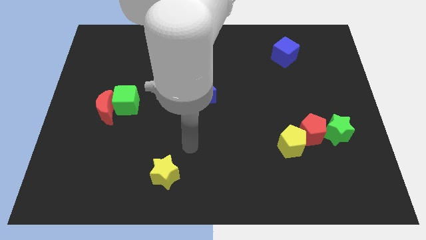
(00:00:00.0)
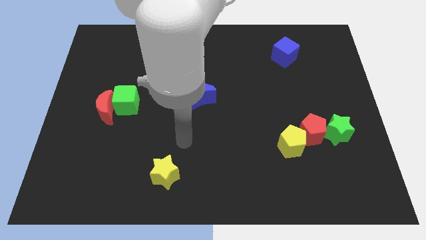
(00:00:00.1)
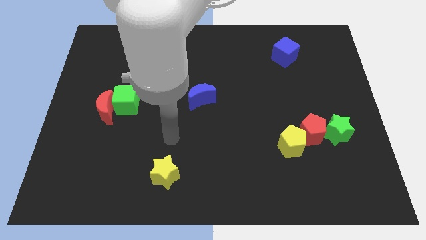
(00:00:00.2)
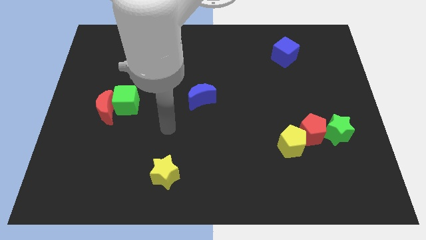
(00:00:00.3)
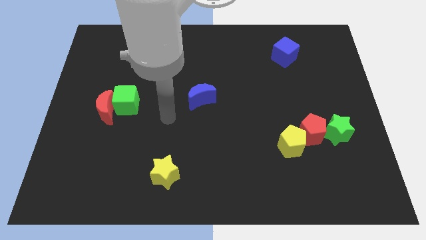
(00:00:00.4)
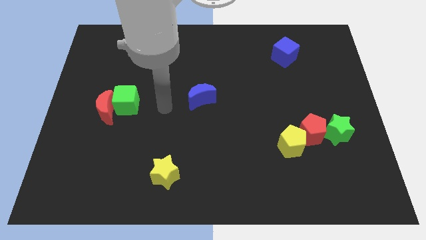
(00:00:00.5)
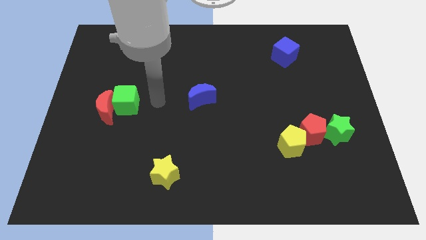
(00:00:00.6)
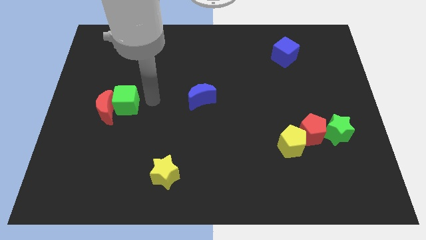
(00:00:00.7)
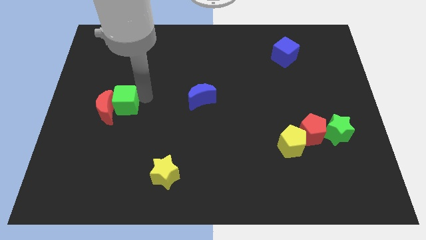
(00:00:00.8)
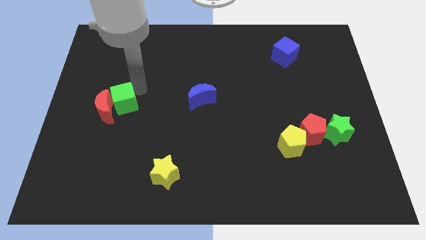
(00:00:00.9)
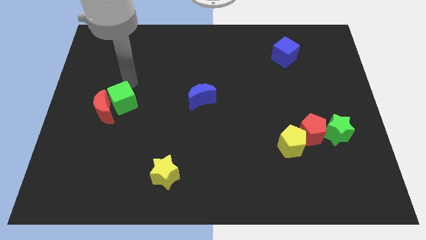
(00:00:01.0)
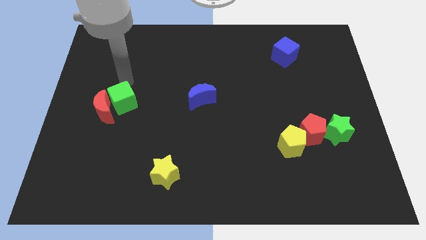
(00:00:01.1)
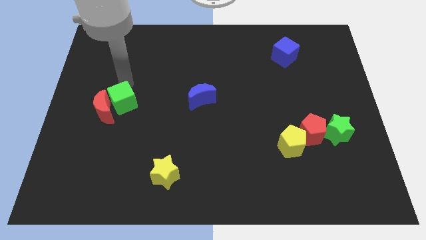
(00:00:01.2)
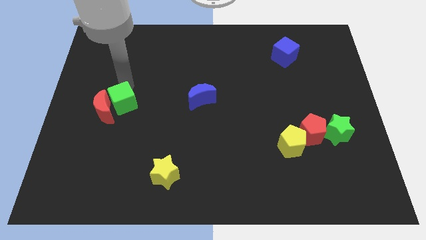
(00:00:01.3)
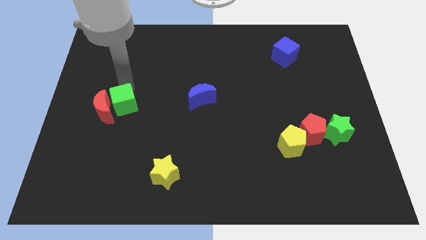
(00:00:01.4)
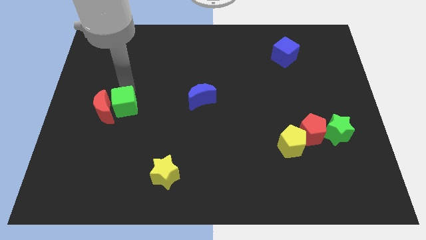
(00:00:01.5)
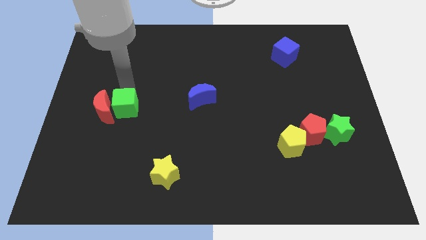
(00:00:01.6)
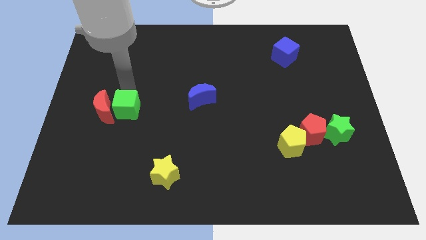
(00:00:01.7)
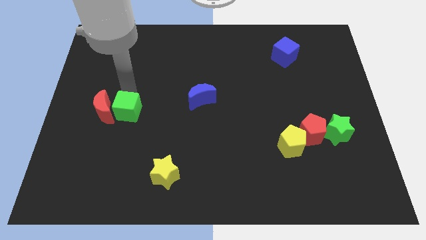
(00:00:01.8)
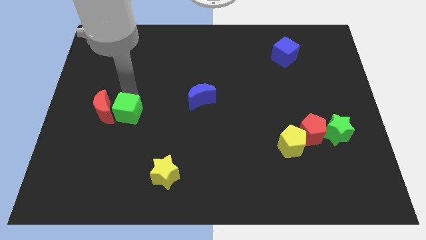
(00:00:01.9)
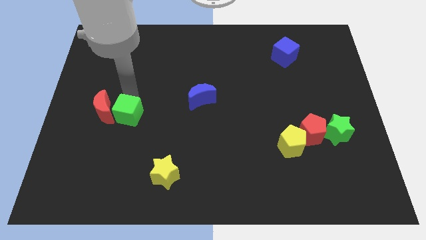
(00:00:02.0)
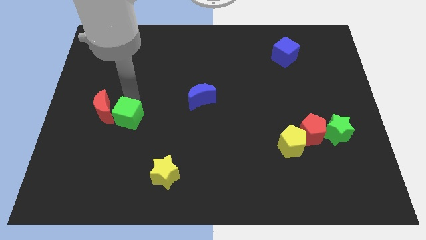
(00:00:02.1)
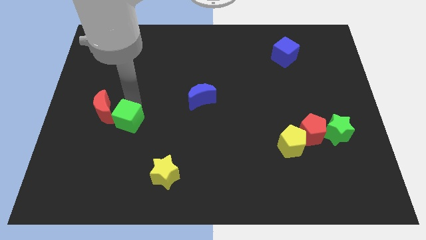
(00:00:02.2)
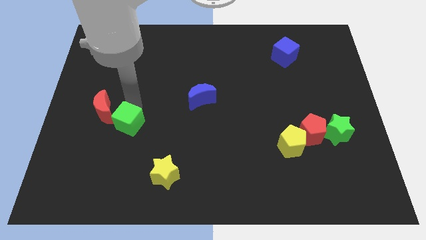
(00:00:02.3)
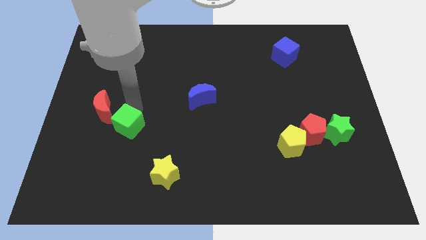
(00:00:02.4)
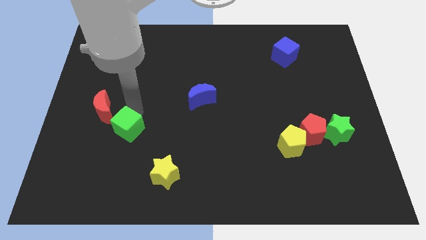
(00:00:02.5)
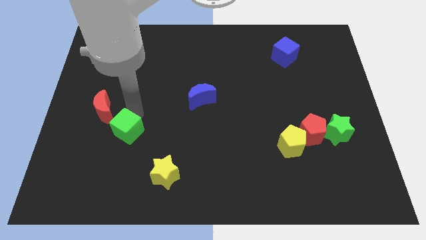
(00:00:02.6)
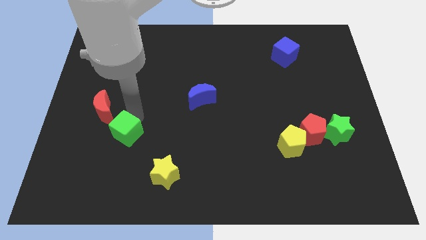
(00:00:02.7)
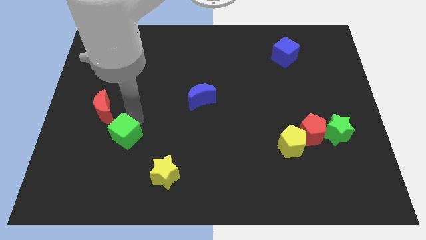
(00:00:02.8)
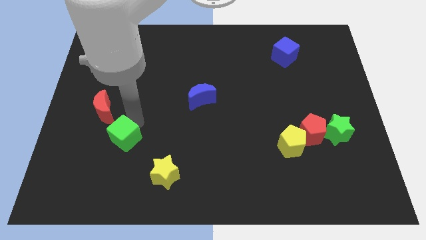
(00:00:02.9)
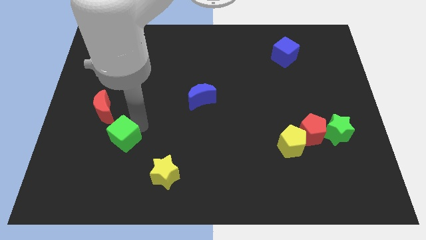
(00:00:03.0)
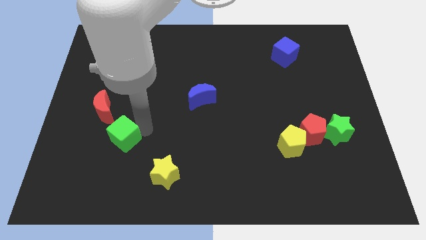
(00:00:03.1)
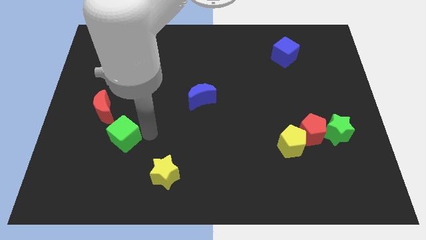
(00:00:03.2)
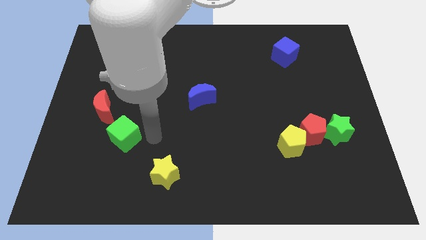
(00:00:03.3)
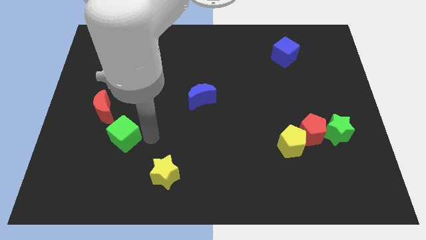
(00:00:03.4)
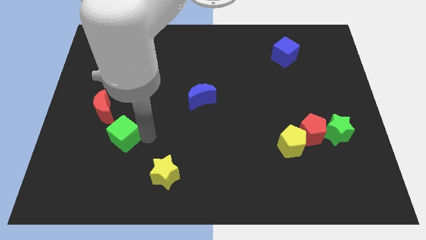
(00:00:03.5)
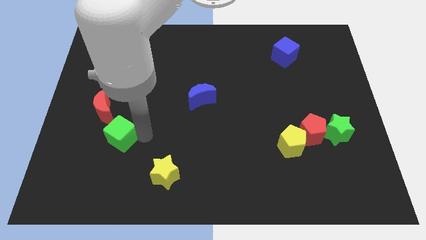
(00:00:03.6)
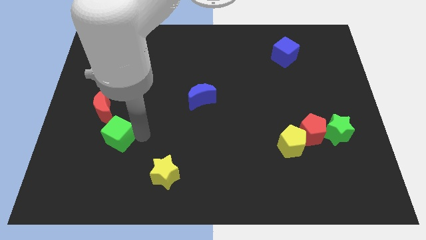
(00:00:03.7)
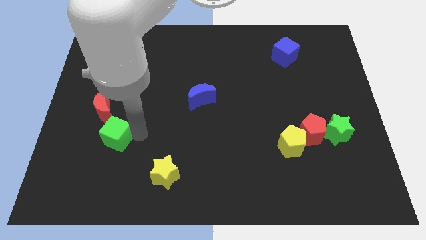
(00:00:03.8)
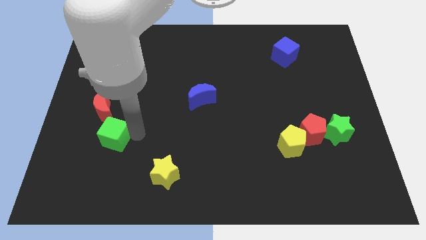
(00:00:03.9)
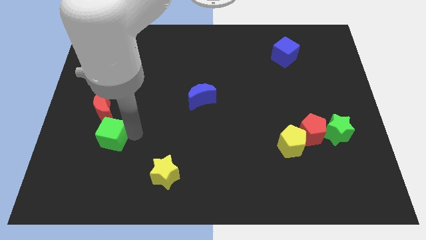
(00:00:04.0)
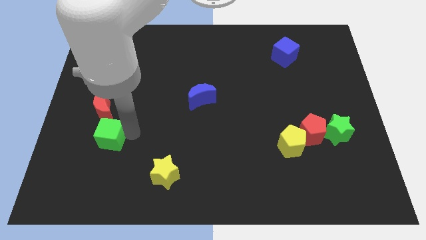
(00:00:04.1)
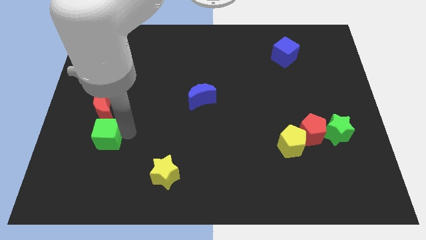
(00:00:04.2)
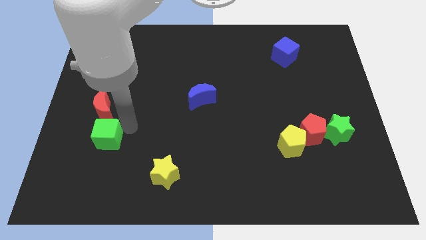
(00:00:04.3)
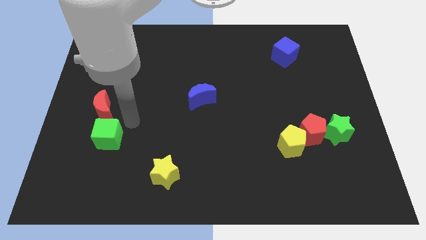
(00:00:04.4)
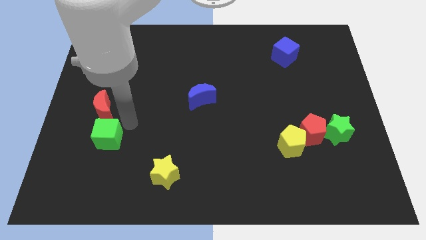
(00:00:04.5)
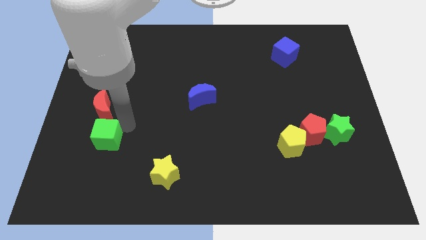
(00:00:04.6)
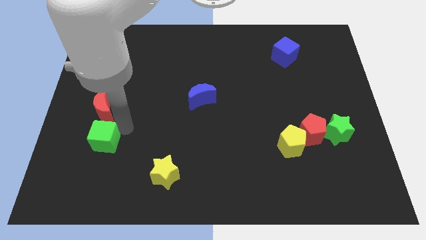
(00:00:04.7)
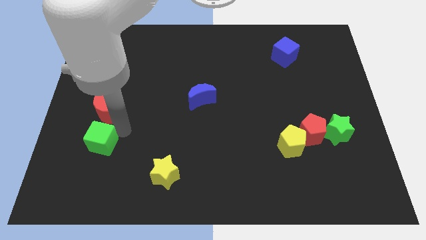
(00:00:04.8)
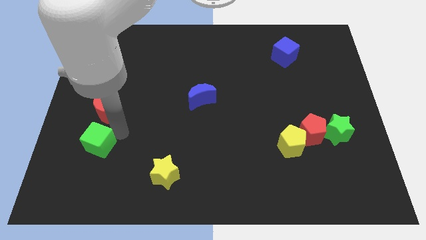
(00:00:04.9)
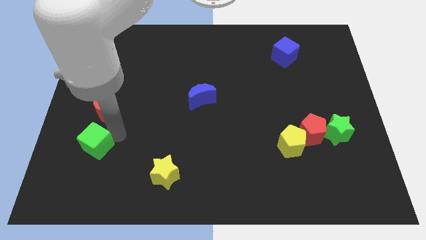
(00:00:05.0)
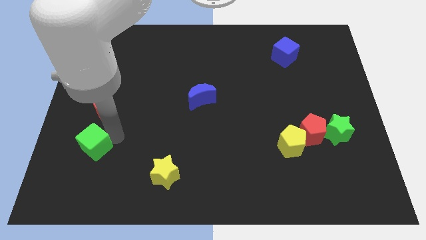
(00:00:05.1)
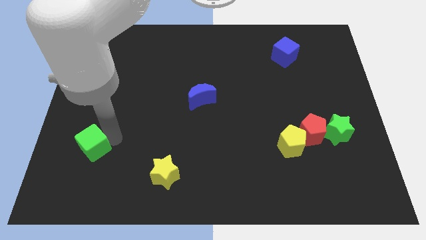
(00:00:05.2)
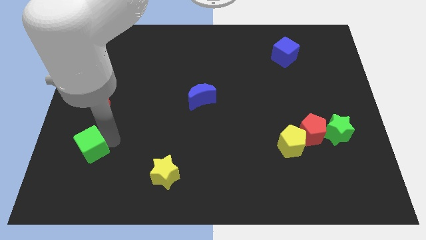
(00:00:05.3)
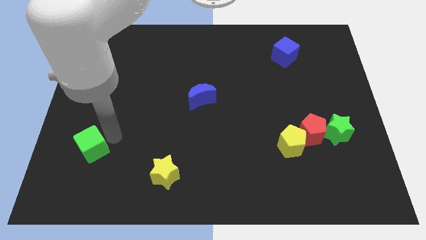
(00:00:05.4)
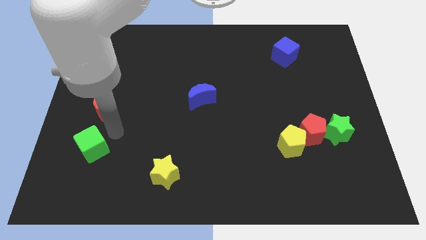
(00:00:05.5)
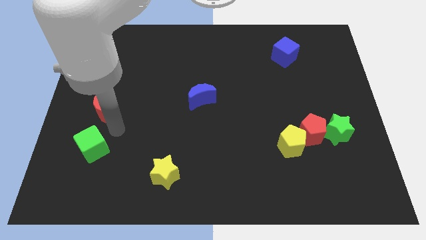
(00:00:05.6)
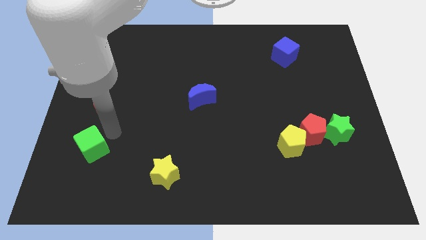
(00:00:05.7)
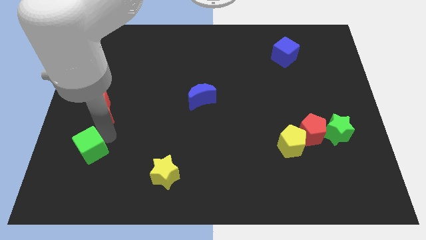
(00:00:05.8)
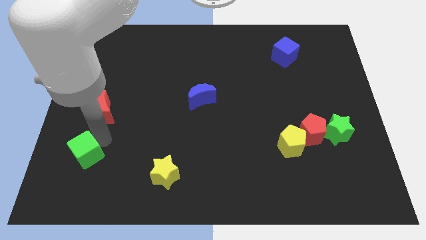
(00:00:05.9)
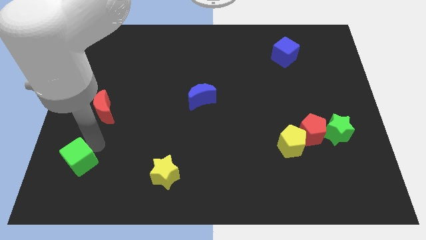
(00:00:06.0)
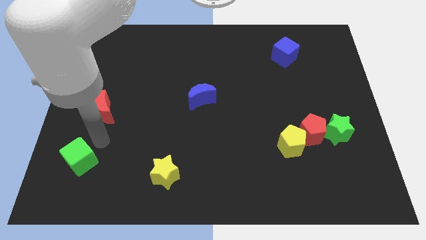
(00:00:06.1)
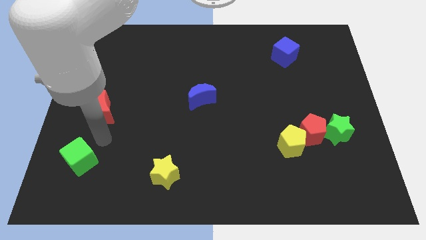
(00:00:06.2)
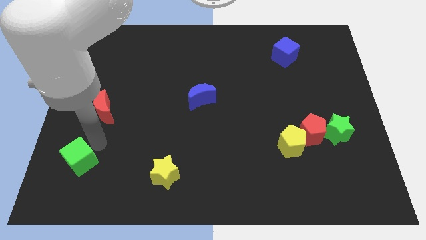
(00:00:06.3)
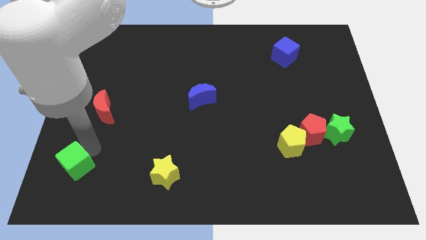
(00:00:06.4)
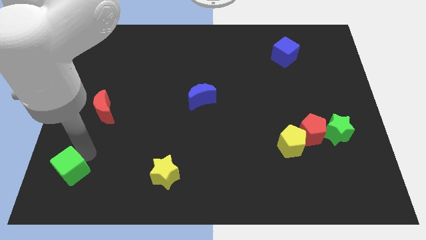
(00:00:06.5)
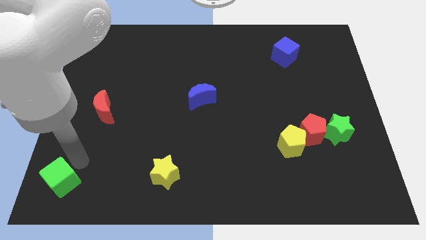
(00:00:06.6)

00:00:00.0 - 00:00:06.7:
slide the green cube to the bottom left
